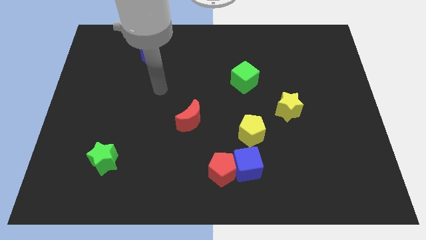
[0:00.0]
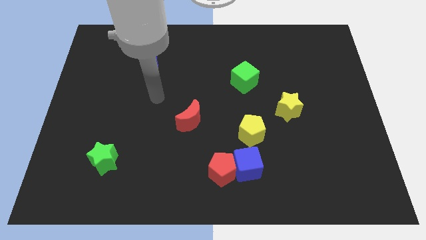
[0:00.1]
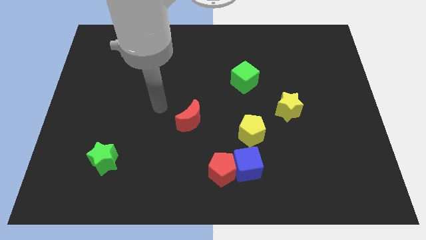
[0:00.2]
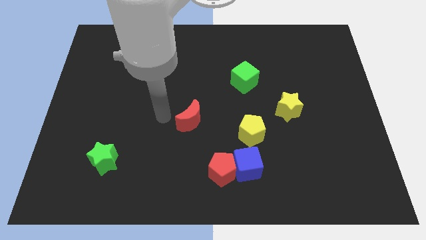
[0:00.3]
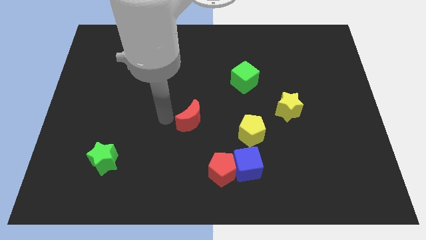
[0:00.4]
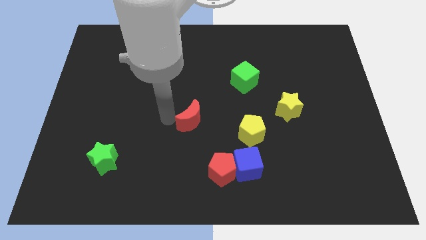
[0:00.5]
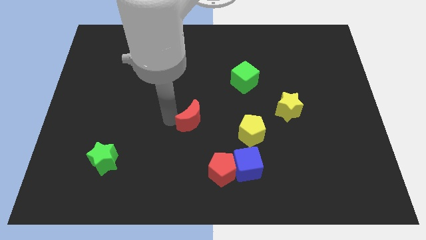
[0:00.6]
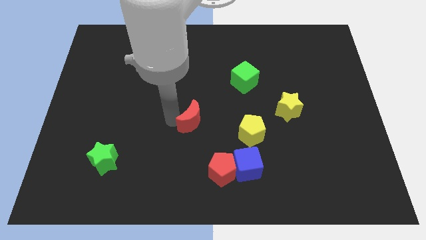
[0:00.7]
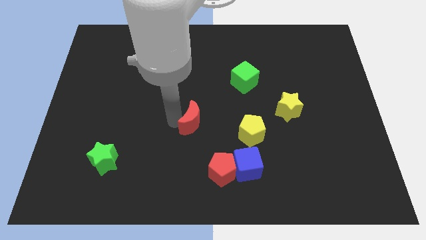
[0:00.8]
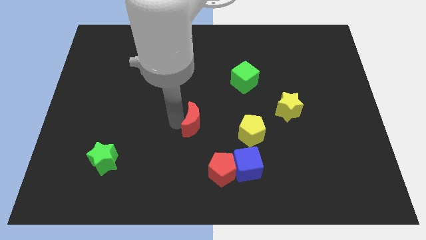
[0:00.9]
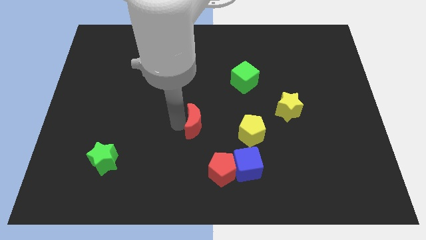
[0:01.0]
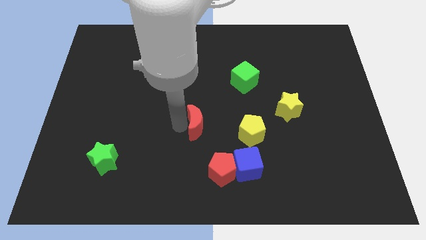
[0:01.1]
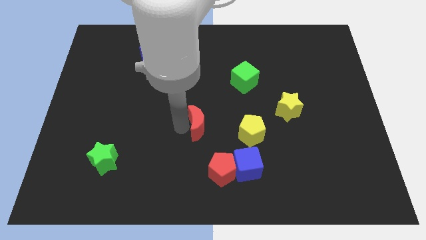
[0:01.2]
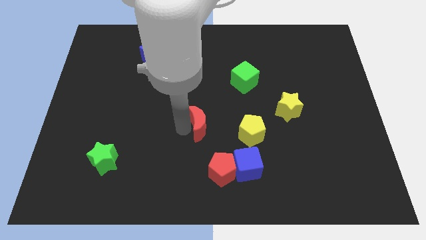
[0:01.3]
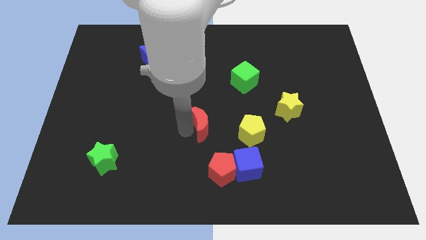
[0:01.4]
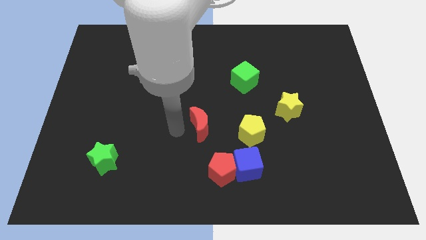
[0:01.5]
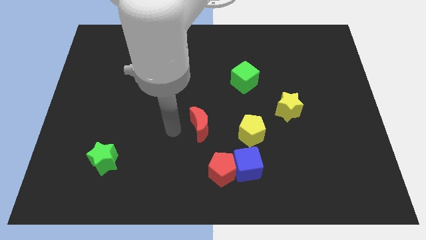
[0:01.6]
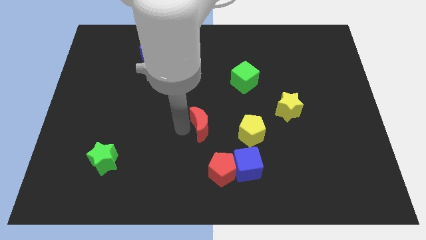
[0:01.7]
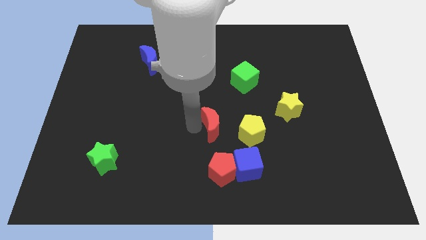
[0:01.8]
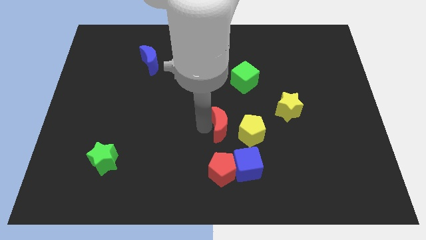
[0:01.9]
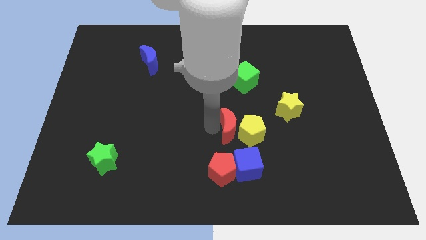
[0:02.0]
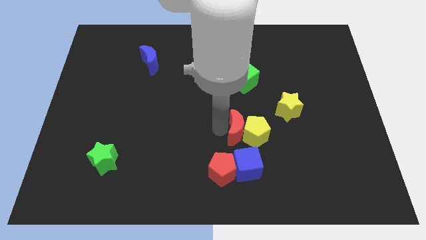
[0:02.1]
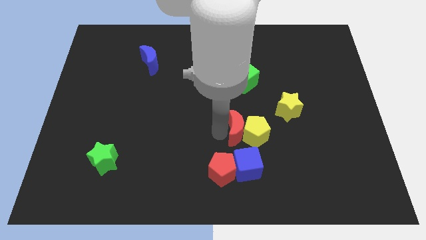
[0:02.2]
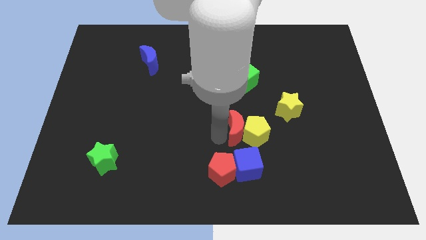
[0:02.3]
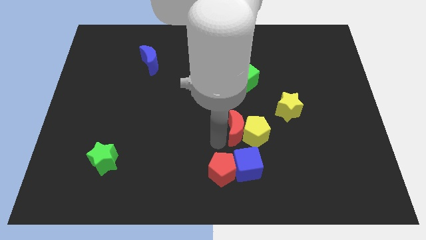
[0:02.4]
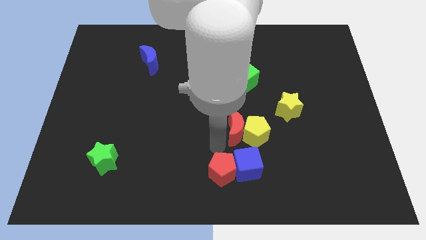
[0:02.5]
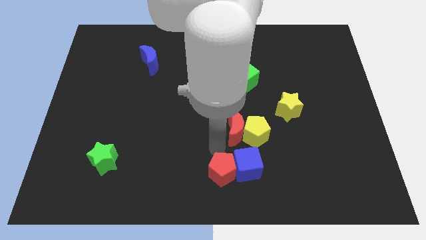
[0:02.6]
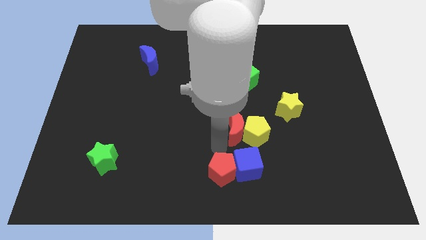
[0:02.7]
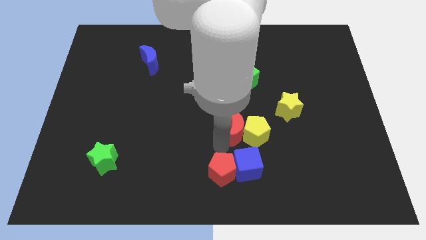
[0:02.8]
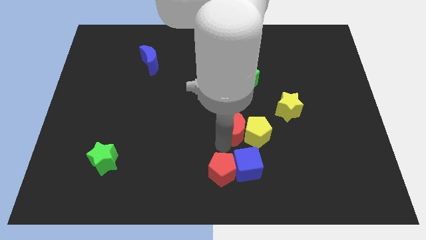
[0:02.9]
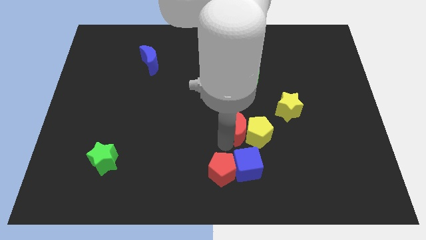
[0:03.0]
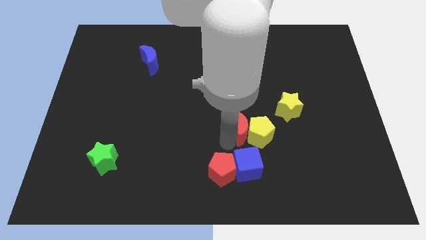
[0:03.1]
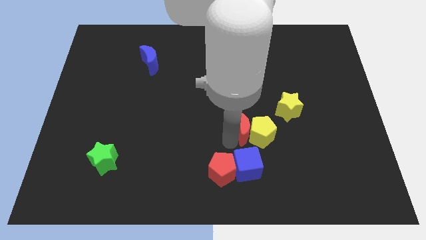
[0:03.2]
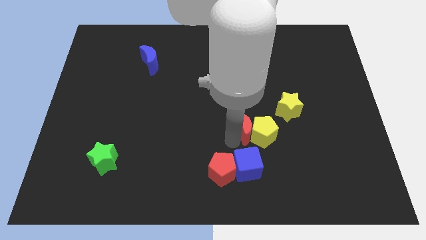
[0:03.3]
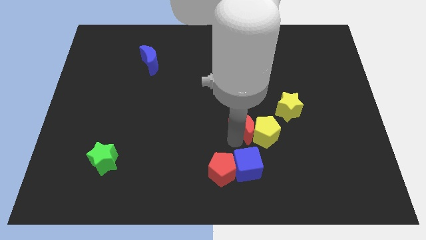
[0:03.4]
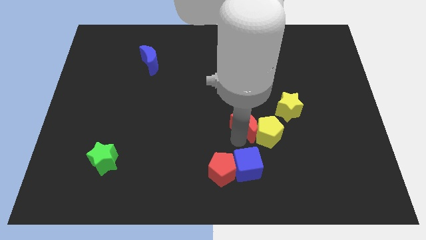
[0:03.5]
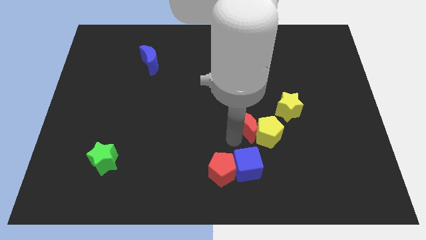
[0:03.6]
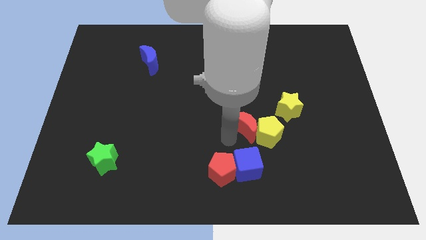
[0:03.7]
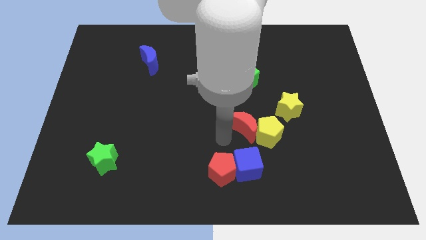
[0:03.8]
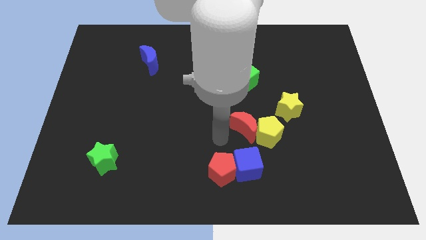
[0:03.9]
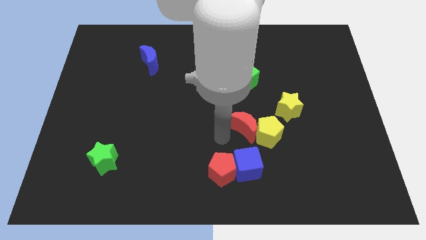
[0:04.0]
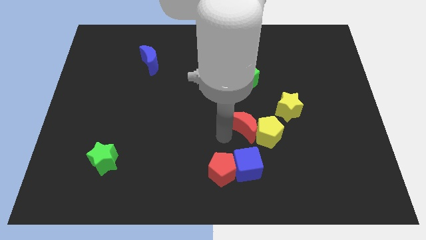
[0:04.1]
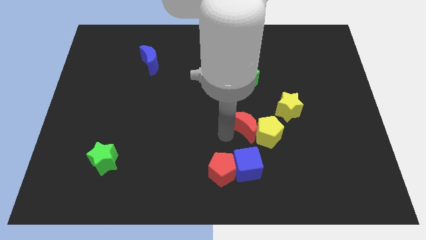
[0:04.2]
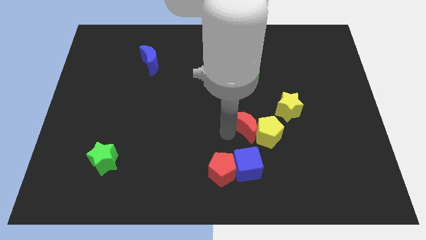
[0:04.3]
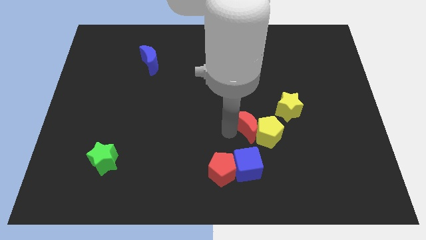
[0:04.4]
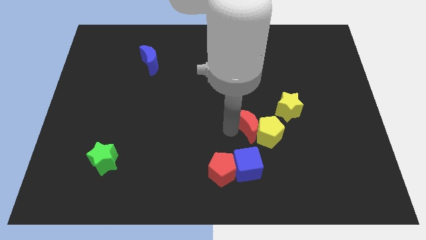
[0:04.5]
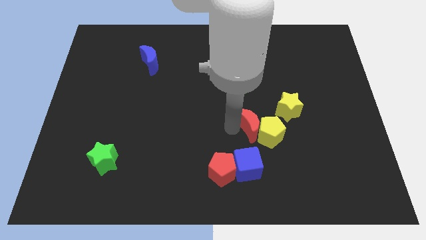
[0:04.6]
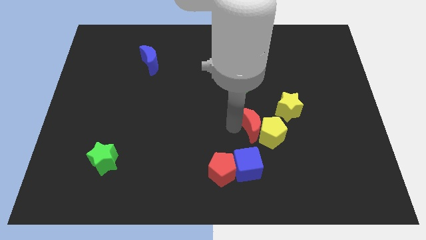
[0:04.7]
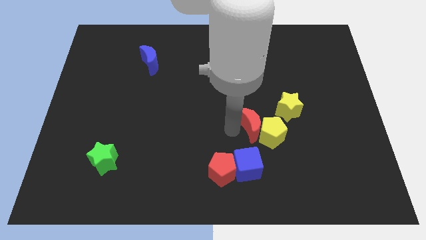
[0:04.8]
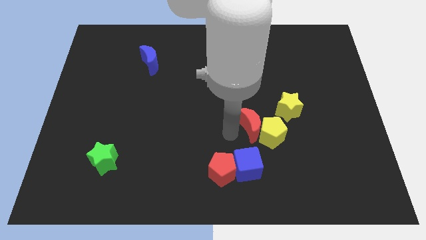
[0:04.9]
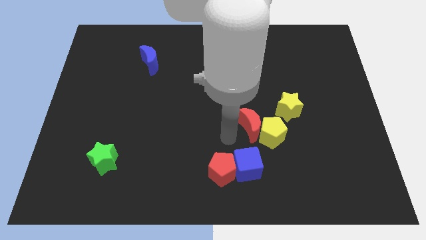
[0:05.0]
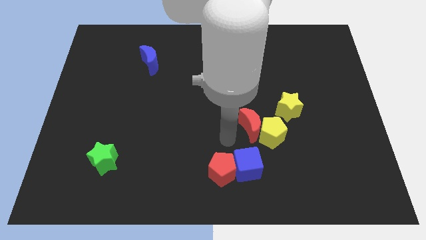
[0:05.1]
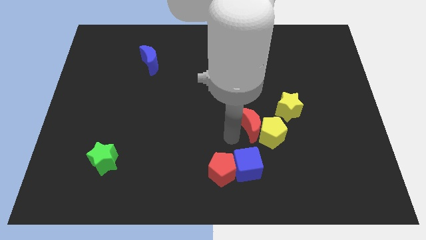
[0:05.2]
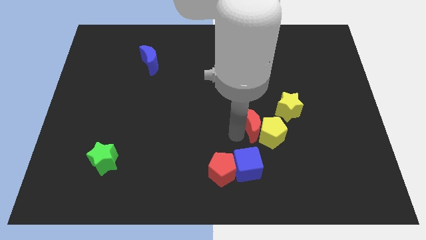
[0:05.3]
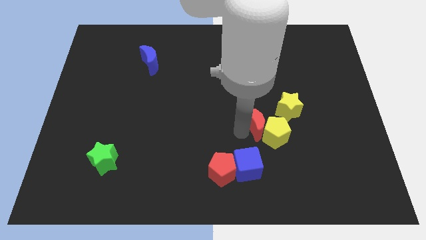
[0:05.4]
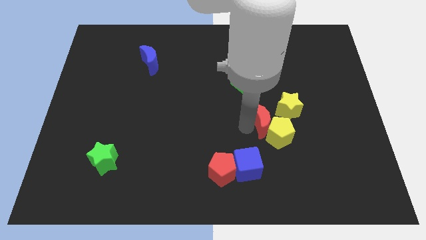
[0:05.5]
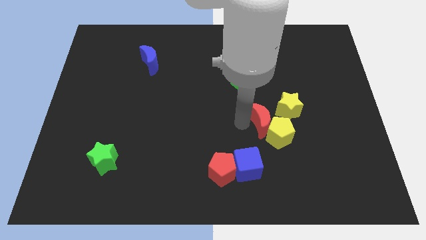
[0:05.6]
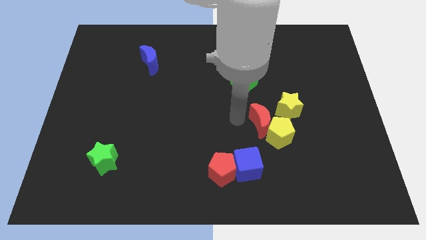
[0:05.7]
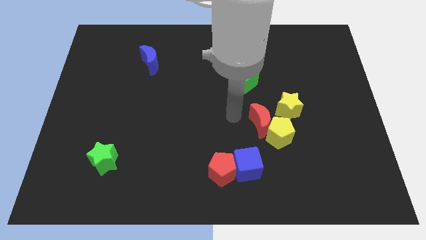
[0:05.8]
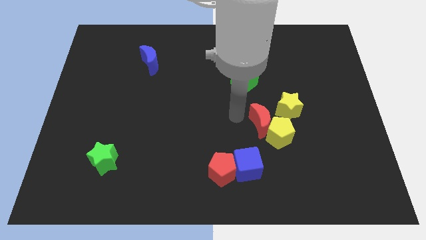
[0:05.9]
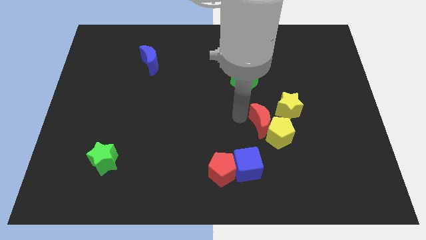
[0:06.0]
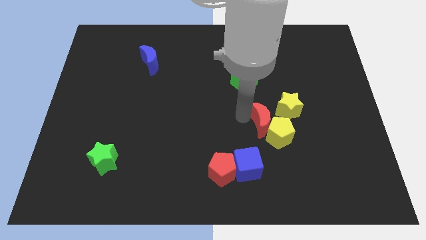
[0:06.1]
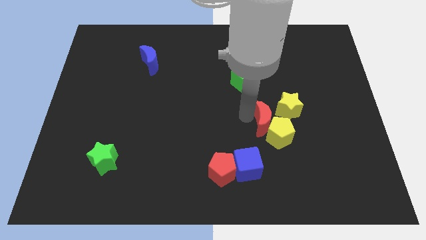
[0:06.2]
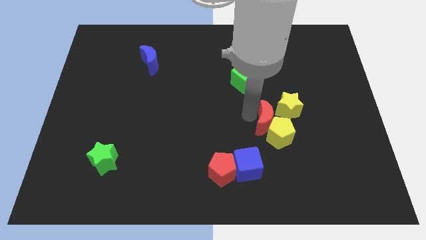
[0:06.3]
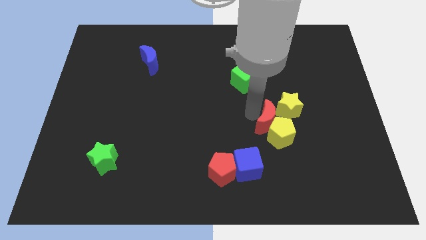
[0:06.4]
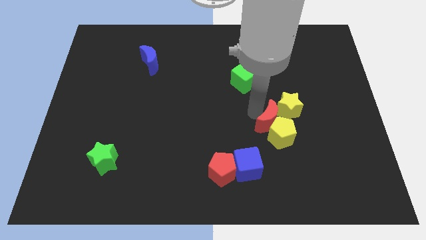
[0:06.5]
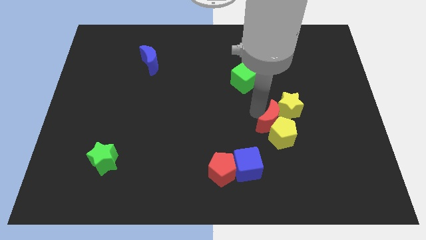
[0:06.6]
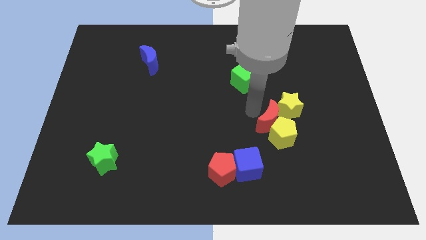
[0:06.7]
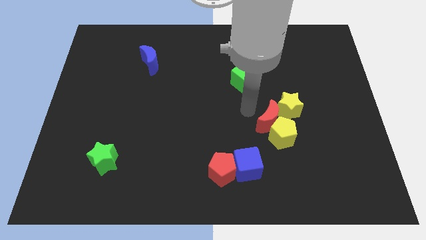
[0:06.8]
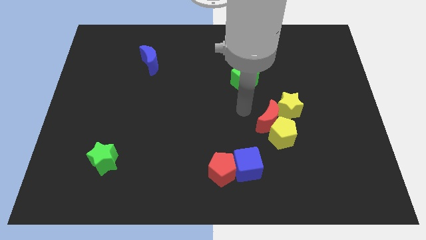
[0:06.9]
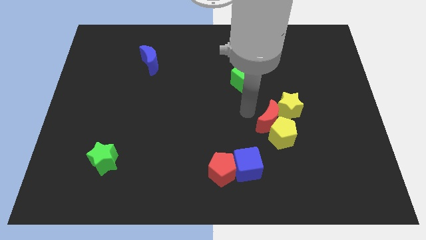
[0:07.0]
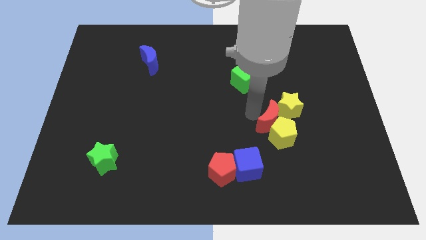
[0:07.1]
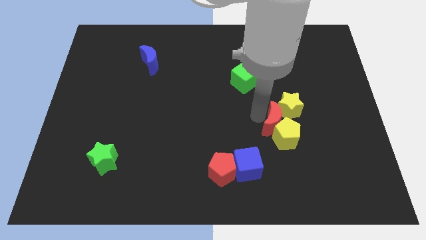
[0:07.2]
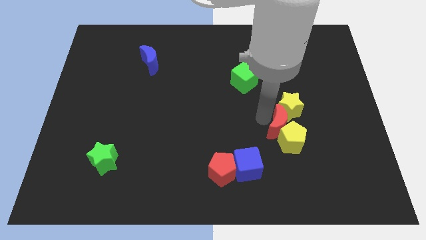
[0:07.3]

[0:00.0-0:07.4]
push the red moon to the right

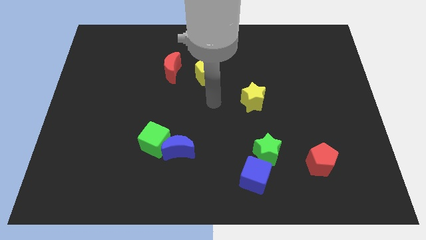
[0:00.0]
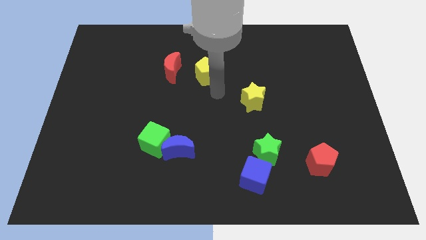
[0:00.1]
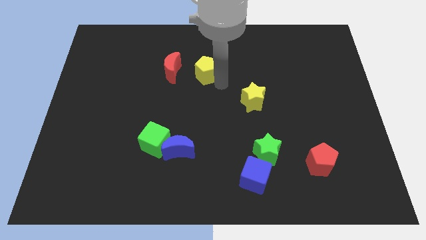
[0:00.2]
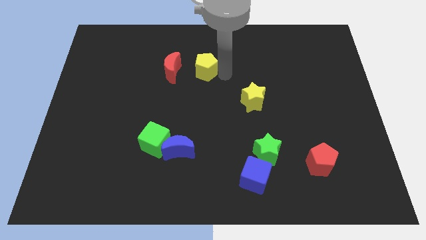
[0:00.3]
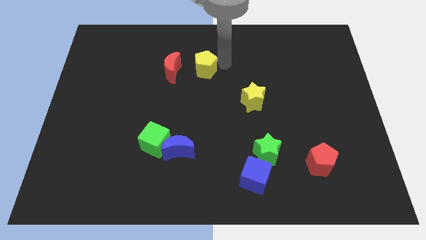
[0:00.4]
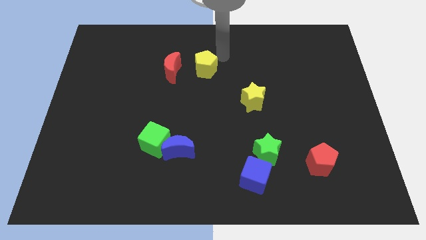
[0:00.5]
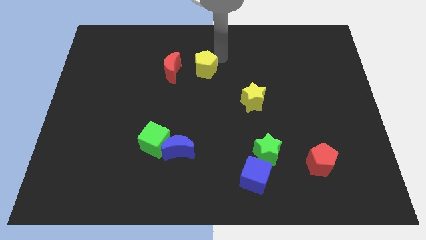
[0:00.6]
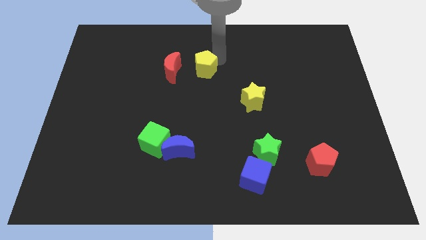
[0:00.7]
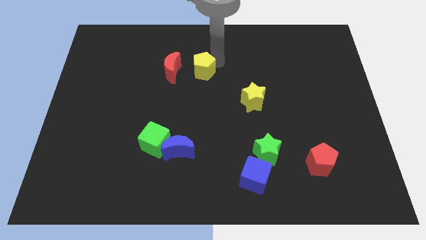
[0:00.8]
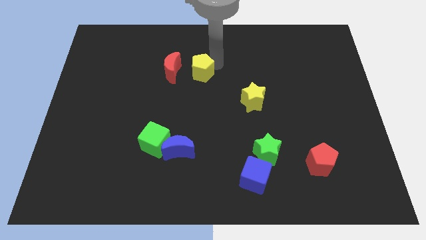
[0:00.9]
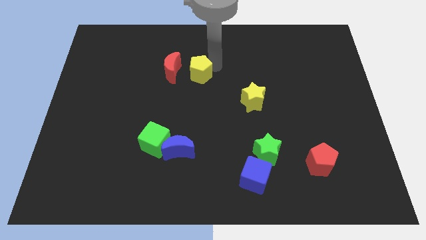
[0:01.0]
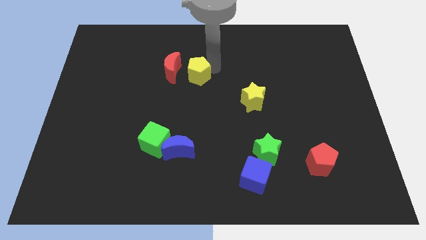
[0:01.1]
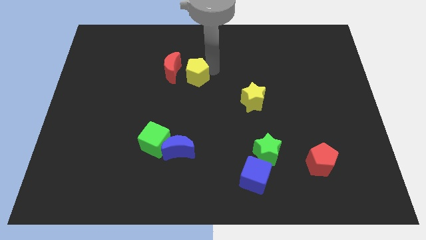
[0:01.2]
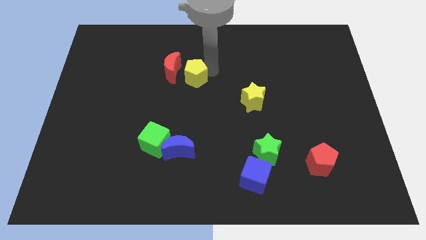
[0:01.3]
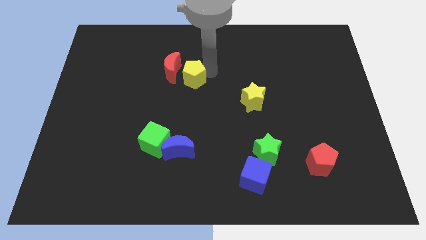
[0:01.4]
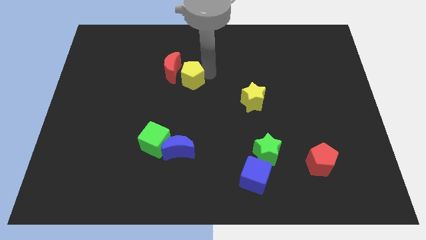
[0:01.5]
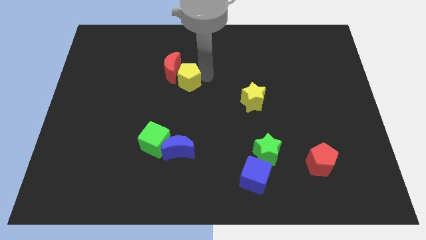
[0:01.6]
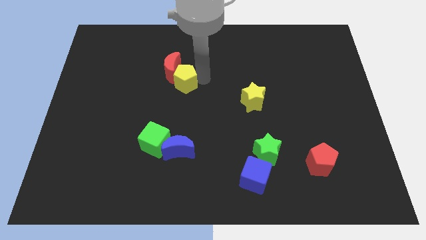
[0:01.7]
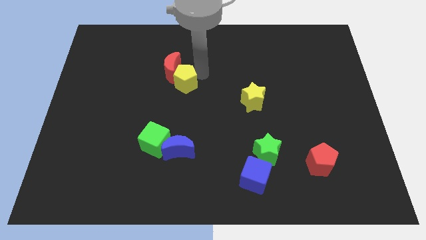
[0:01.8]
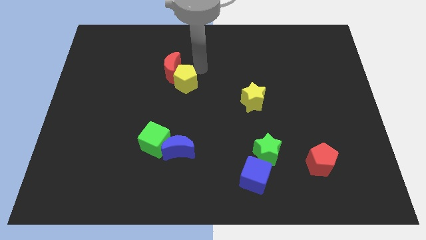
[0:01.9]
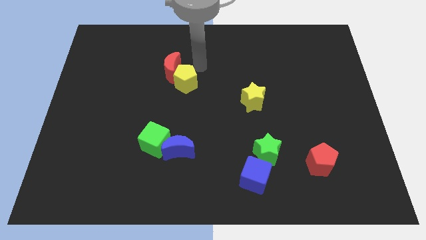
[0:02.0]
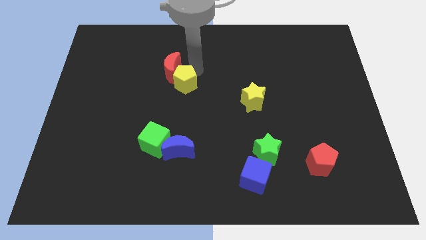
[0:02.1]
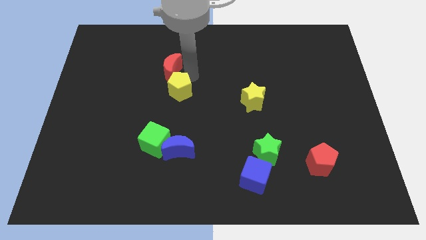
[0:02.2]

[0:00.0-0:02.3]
slightly move the yellow pentagon down and left diagonally
